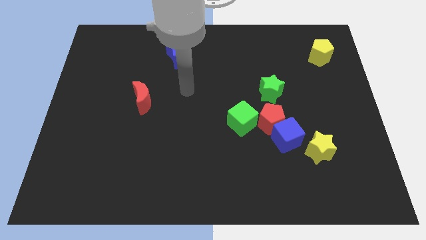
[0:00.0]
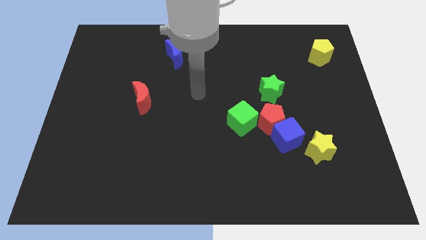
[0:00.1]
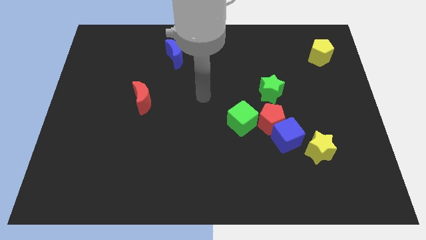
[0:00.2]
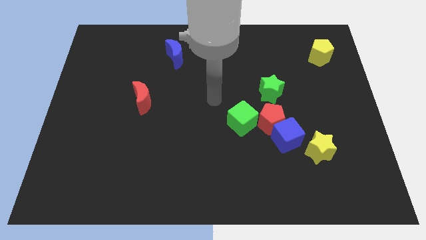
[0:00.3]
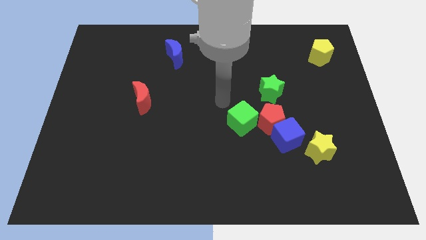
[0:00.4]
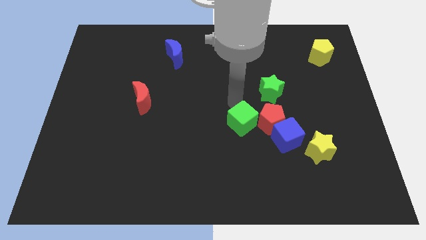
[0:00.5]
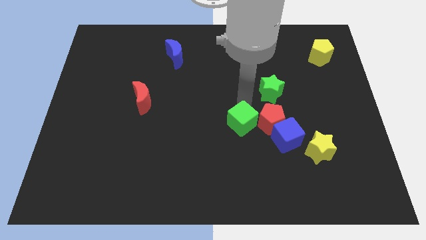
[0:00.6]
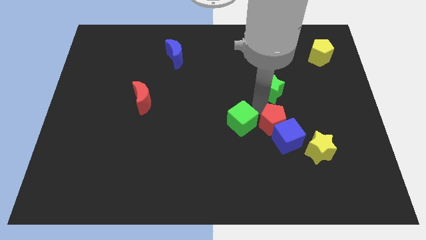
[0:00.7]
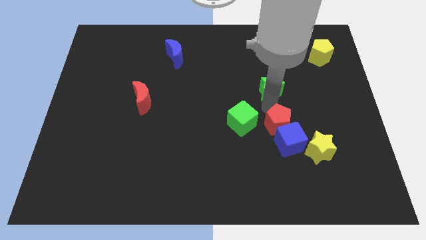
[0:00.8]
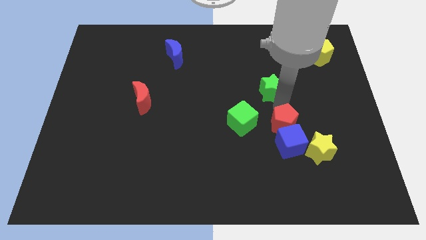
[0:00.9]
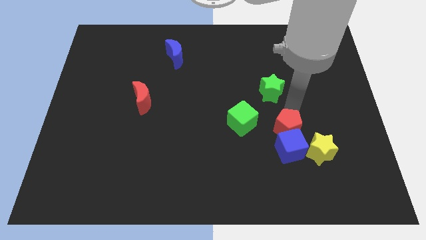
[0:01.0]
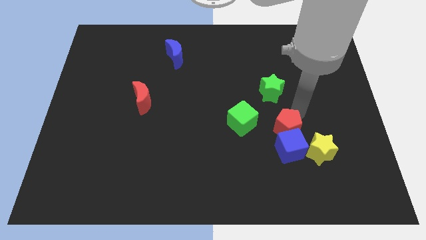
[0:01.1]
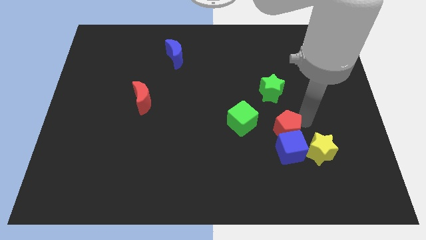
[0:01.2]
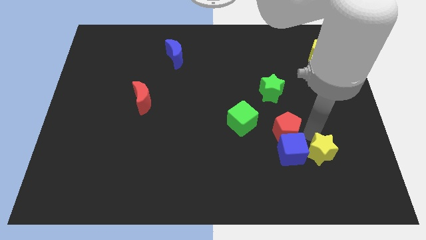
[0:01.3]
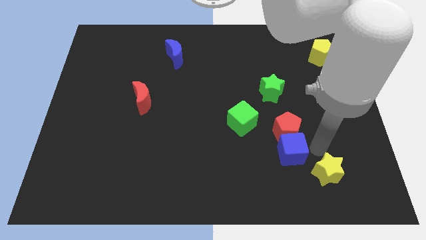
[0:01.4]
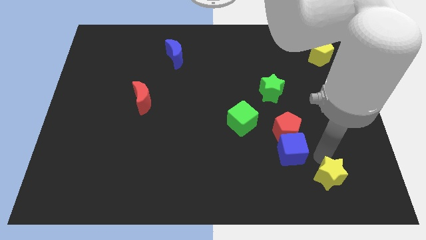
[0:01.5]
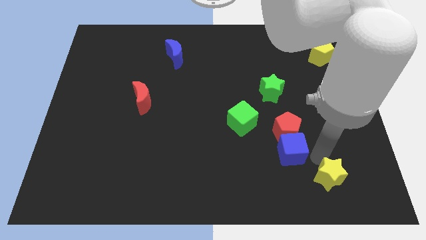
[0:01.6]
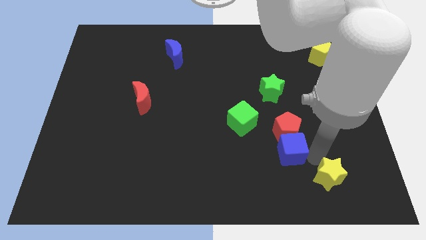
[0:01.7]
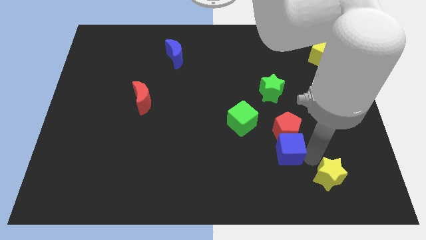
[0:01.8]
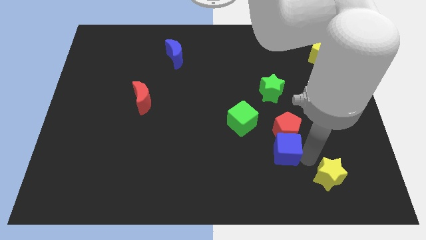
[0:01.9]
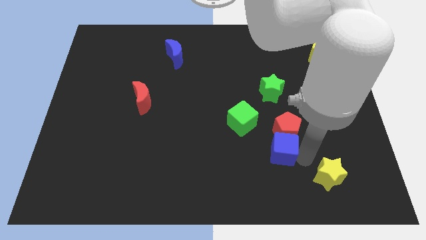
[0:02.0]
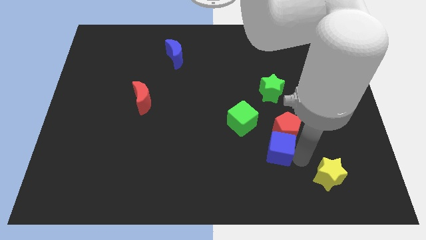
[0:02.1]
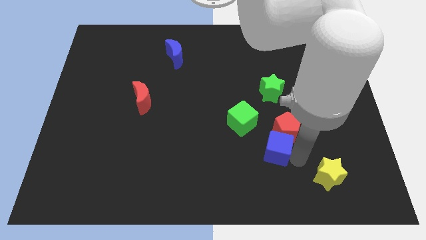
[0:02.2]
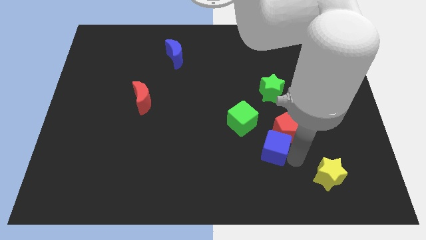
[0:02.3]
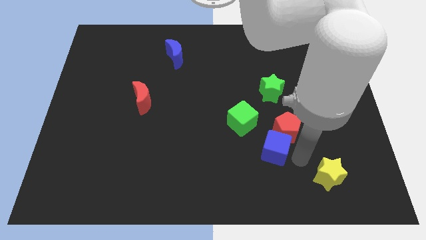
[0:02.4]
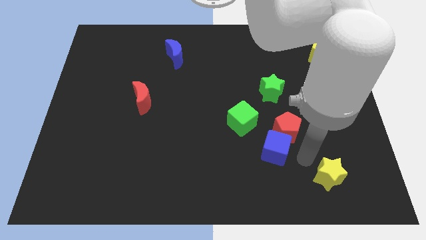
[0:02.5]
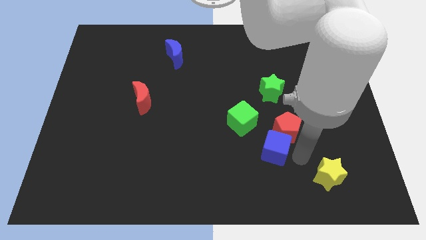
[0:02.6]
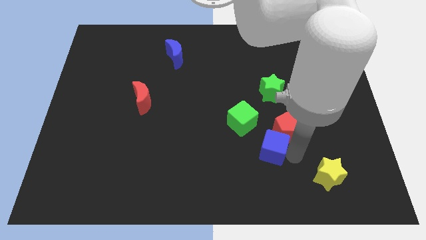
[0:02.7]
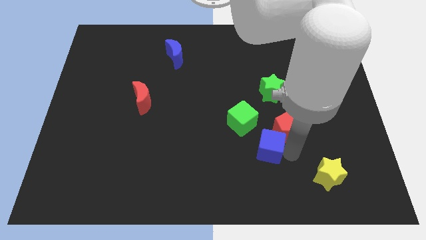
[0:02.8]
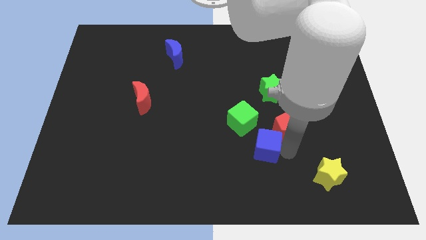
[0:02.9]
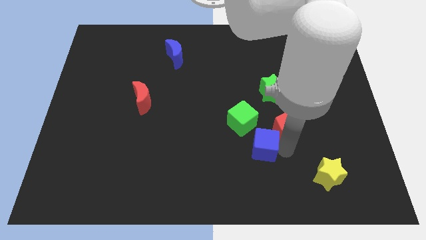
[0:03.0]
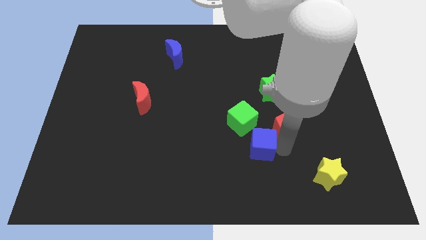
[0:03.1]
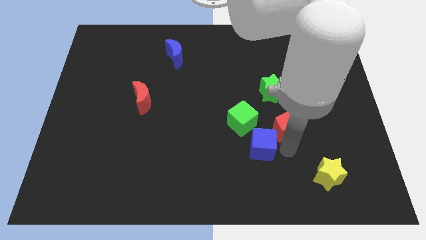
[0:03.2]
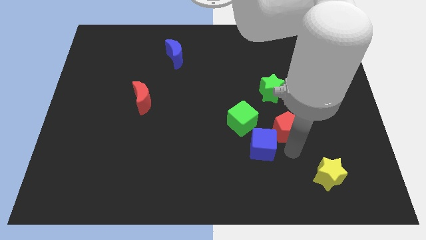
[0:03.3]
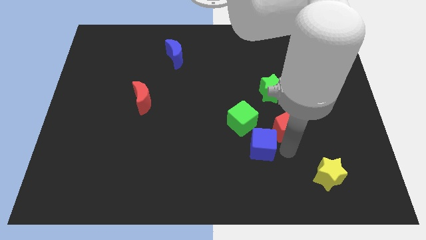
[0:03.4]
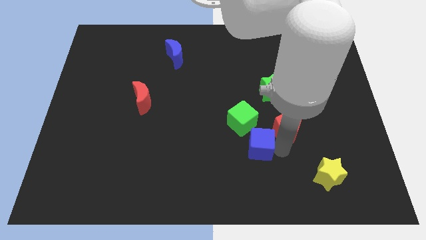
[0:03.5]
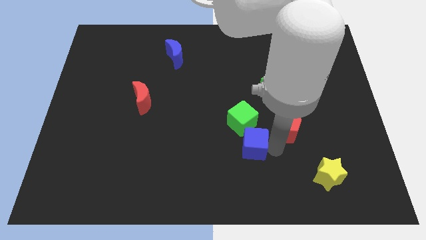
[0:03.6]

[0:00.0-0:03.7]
separate the blue cube from the red pentagon and yellow star

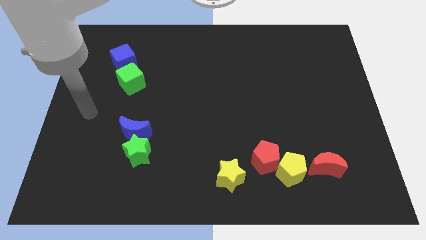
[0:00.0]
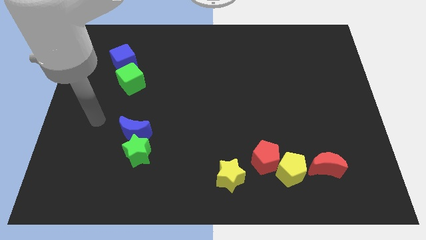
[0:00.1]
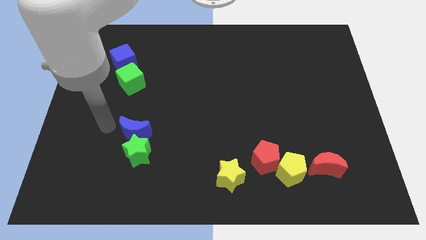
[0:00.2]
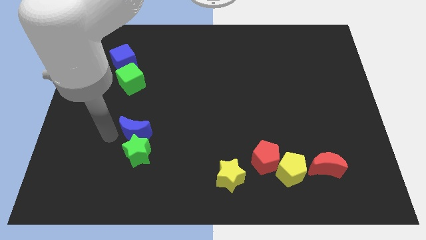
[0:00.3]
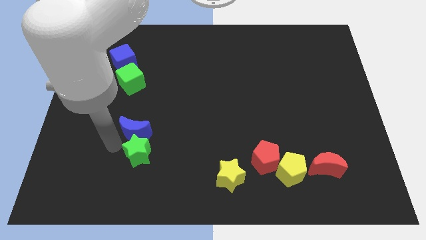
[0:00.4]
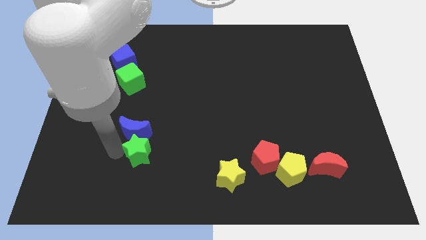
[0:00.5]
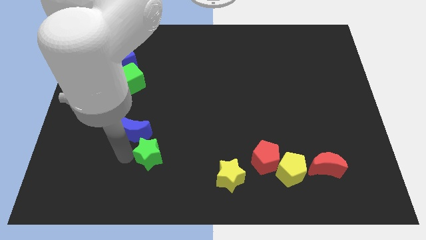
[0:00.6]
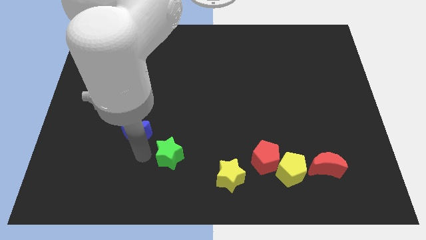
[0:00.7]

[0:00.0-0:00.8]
pull the blue moon apart from the green star

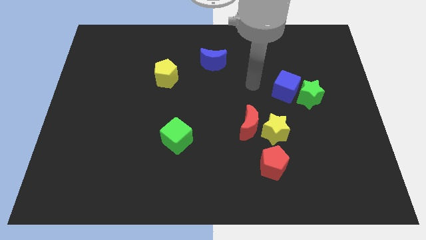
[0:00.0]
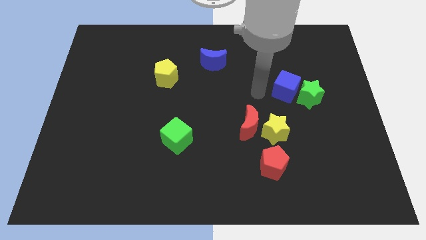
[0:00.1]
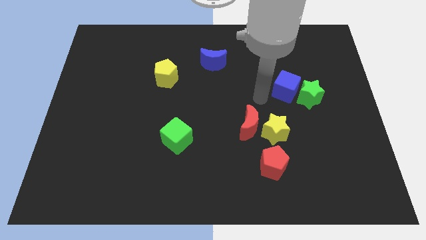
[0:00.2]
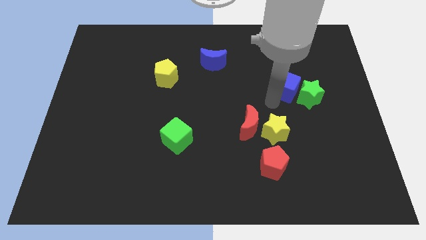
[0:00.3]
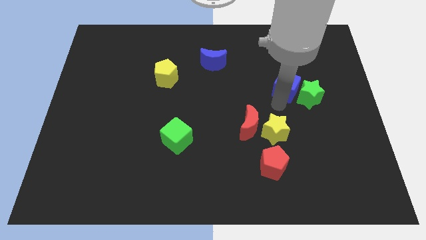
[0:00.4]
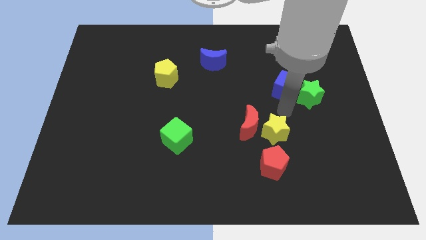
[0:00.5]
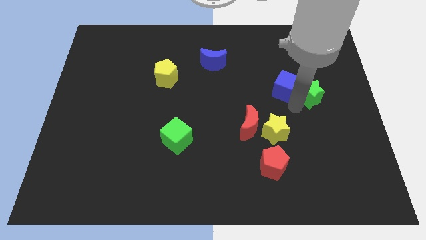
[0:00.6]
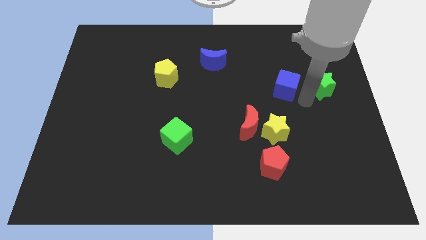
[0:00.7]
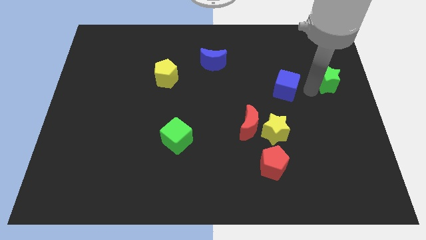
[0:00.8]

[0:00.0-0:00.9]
pull the blue cube apart from the green star

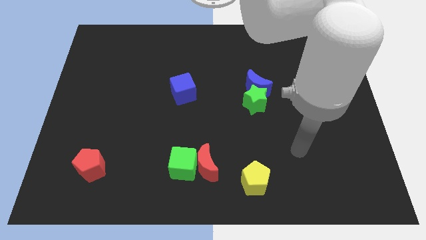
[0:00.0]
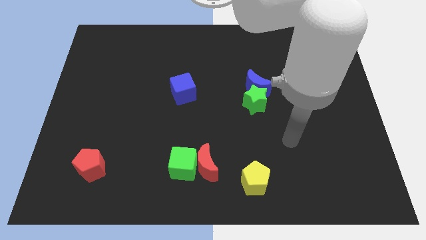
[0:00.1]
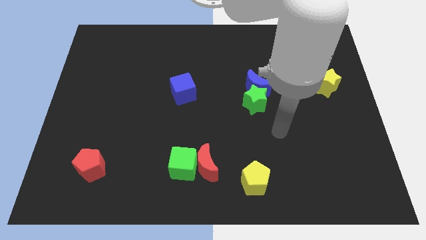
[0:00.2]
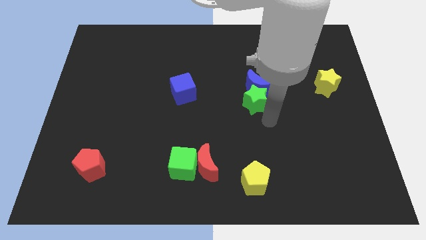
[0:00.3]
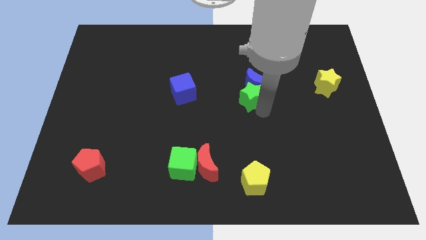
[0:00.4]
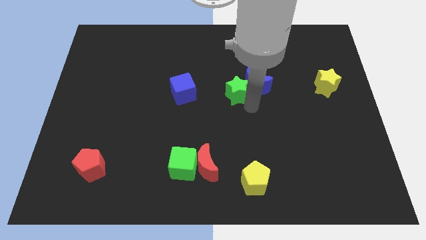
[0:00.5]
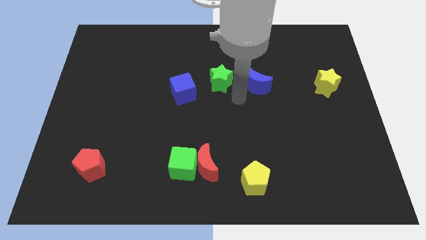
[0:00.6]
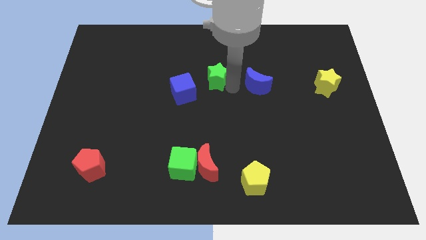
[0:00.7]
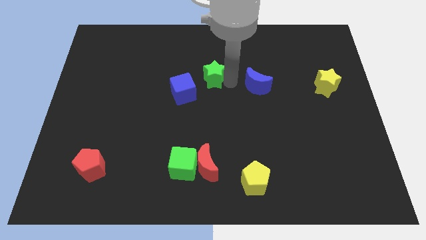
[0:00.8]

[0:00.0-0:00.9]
separate the blue moon from the green star

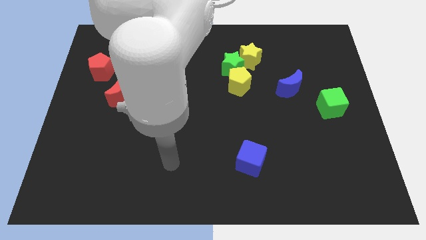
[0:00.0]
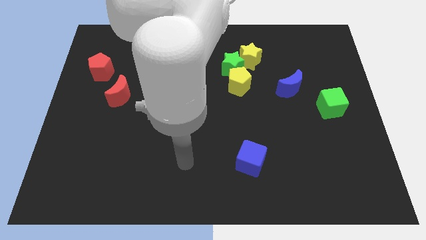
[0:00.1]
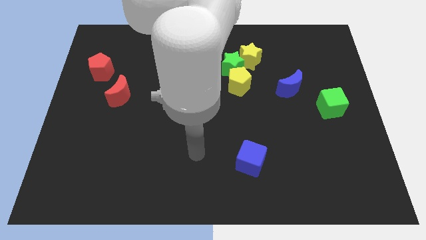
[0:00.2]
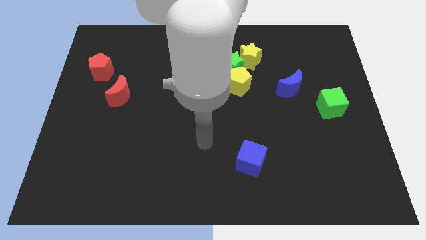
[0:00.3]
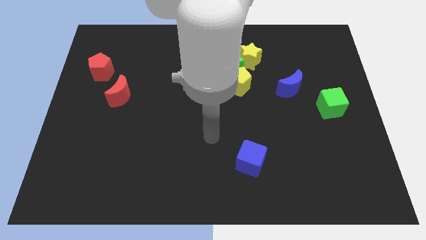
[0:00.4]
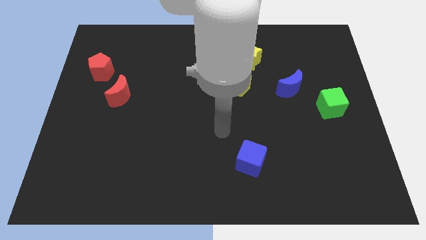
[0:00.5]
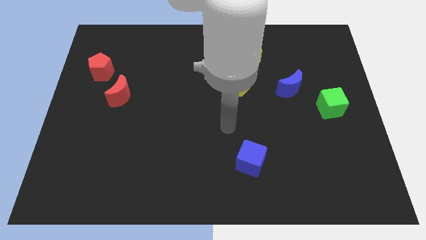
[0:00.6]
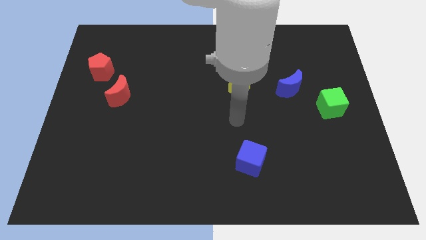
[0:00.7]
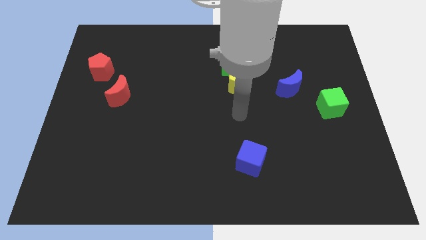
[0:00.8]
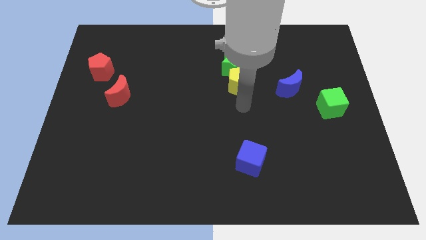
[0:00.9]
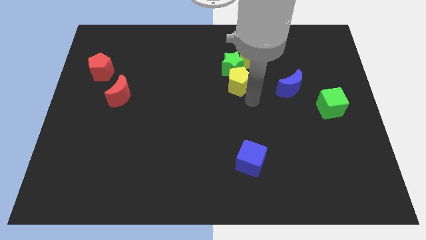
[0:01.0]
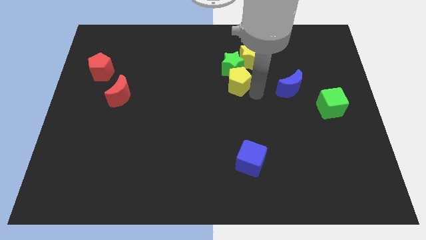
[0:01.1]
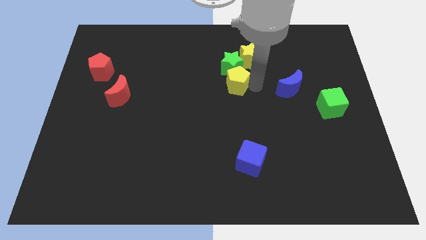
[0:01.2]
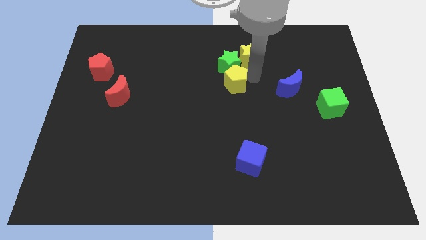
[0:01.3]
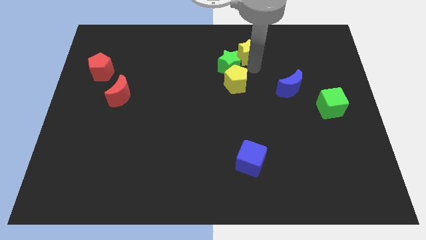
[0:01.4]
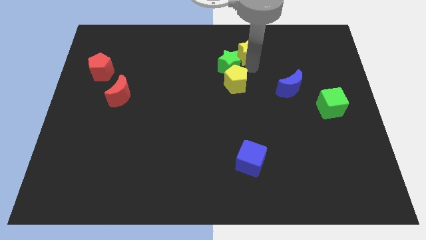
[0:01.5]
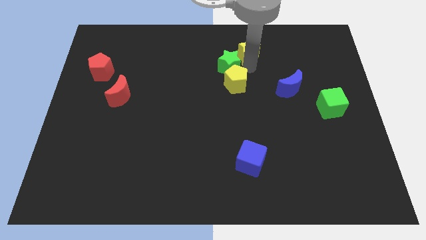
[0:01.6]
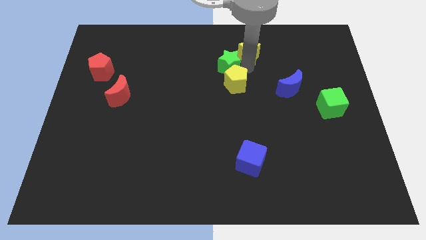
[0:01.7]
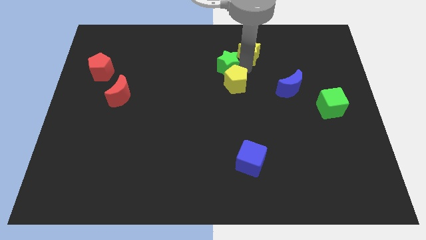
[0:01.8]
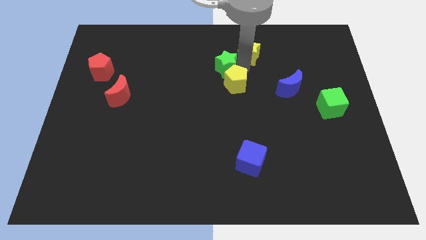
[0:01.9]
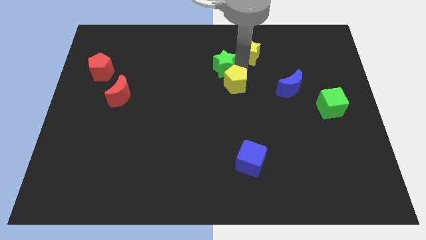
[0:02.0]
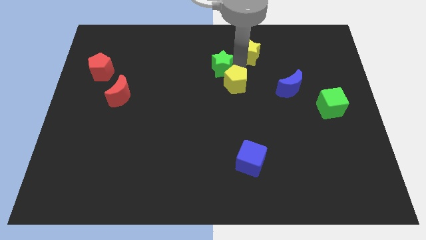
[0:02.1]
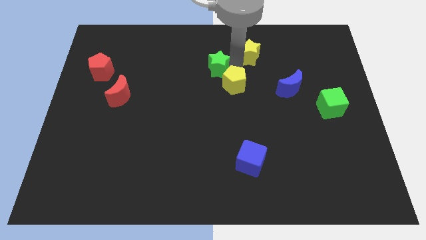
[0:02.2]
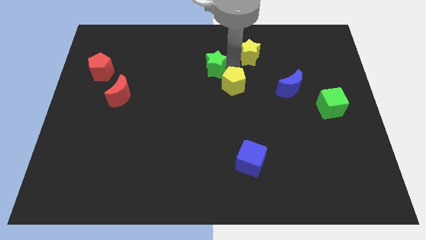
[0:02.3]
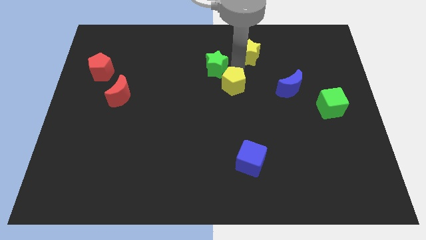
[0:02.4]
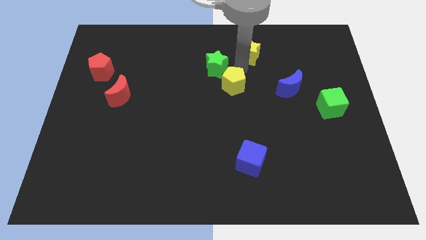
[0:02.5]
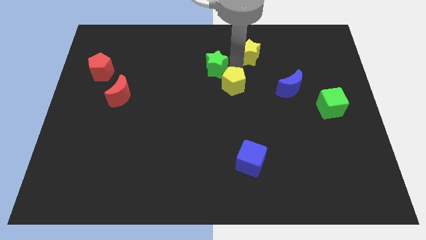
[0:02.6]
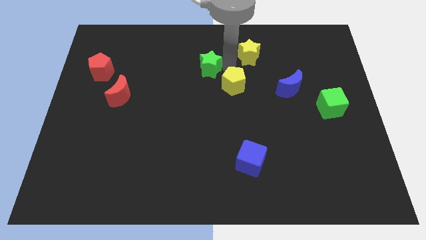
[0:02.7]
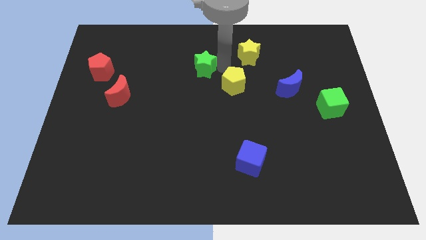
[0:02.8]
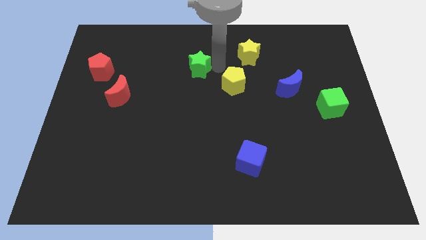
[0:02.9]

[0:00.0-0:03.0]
move the green star away from the yellow star and yellow pentagon
